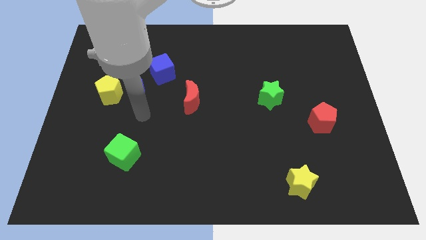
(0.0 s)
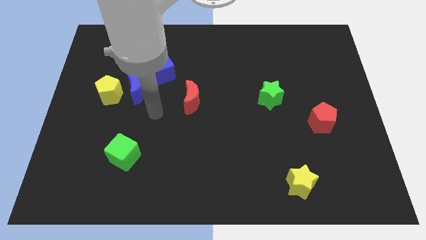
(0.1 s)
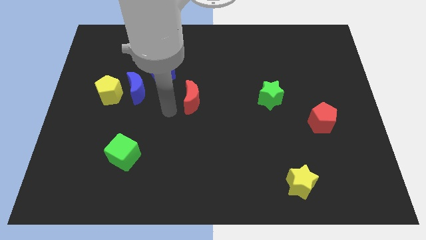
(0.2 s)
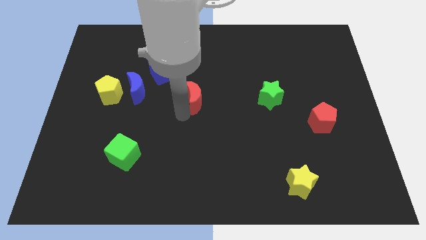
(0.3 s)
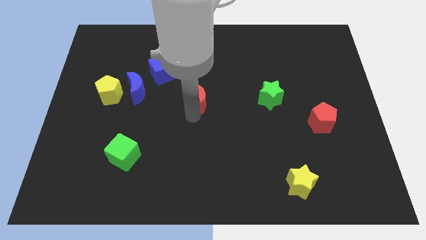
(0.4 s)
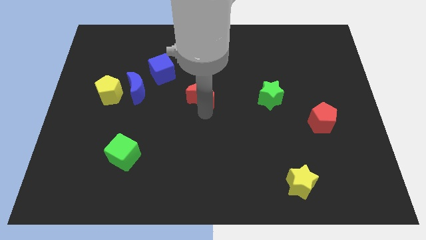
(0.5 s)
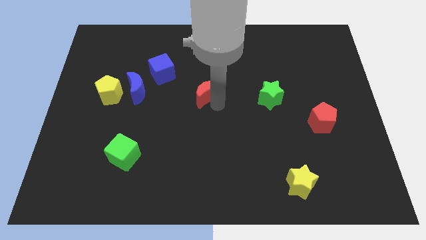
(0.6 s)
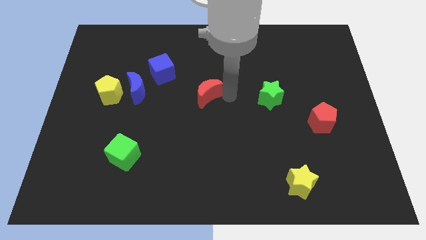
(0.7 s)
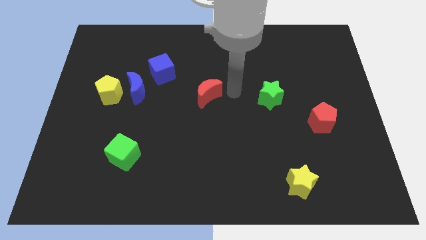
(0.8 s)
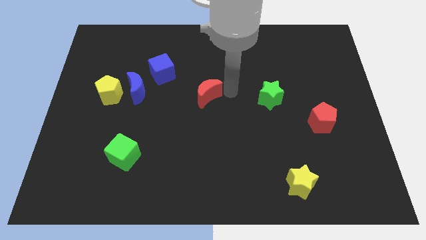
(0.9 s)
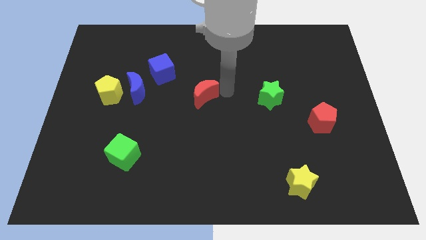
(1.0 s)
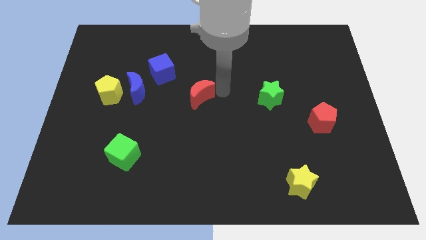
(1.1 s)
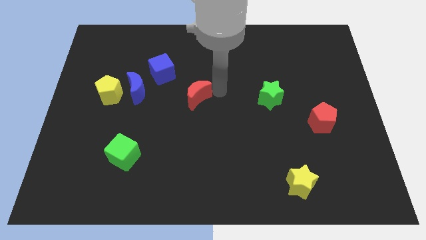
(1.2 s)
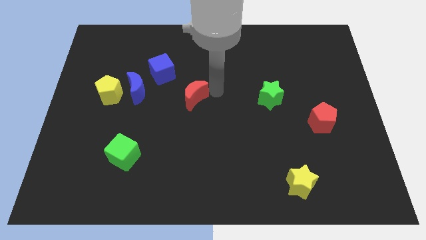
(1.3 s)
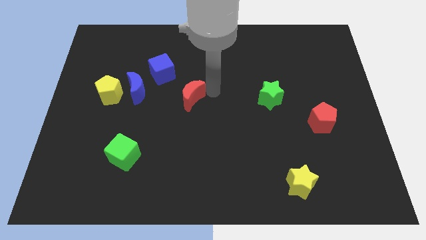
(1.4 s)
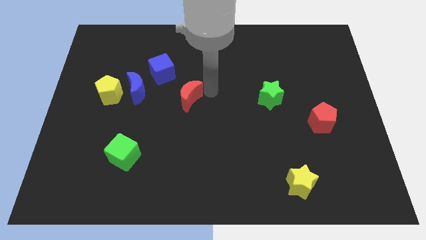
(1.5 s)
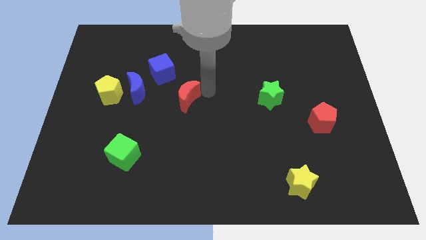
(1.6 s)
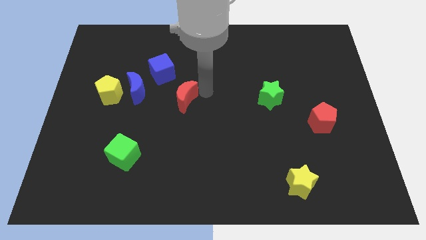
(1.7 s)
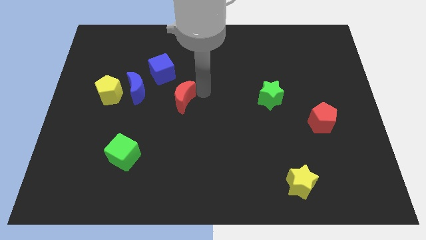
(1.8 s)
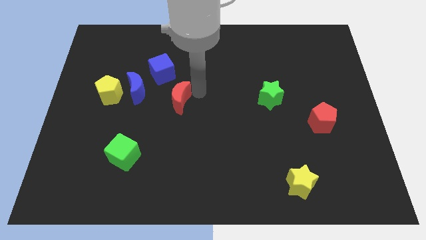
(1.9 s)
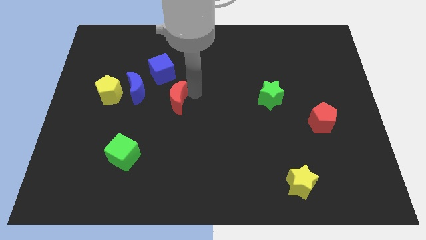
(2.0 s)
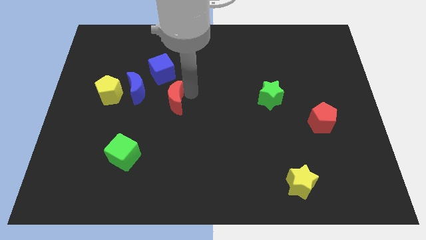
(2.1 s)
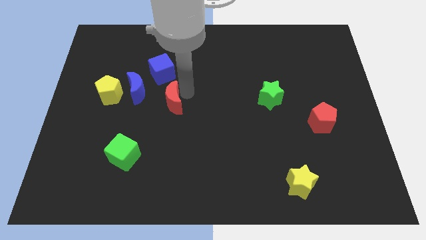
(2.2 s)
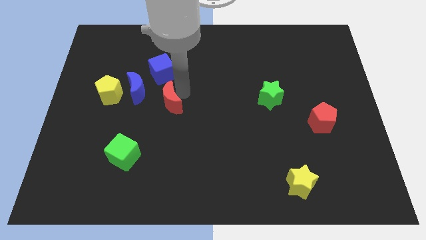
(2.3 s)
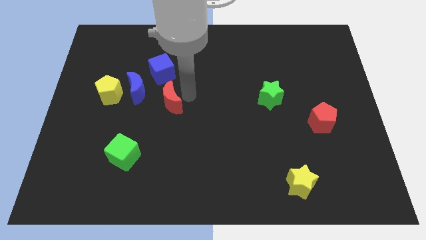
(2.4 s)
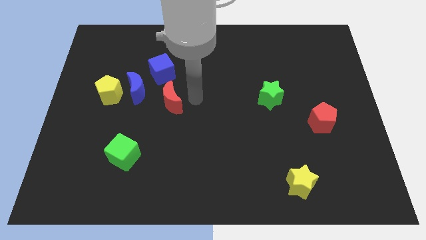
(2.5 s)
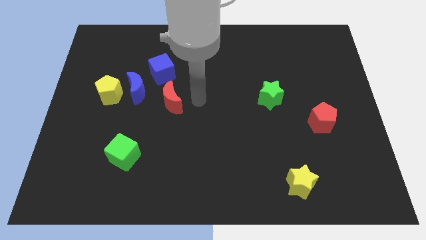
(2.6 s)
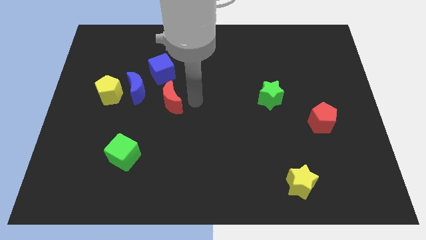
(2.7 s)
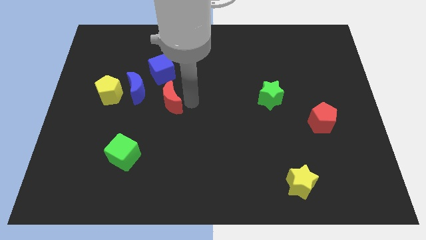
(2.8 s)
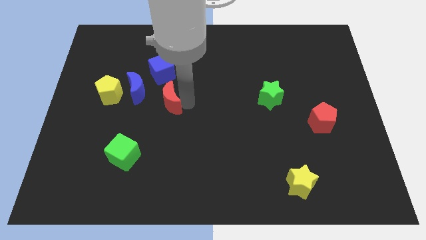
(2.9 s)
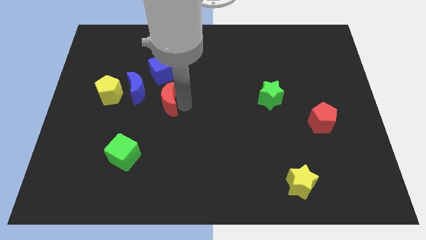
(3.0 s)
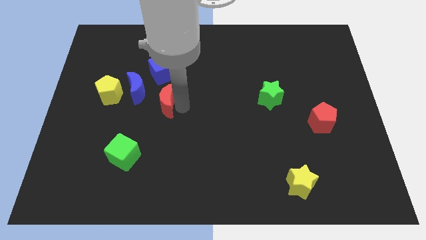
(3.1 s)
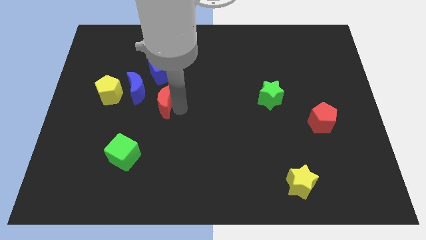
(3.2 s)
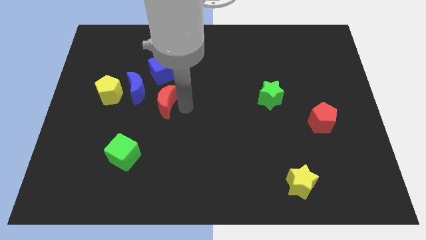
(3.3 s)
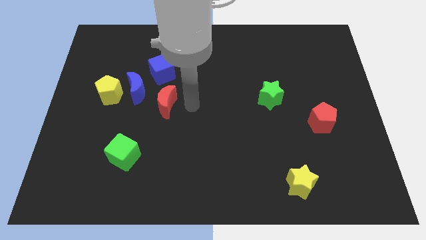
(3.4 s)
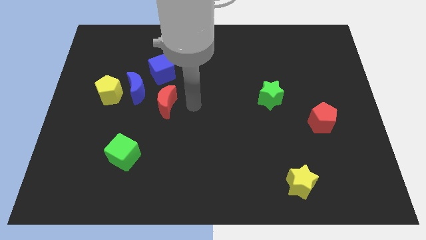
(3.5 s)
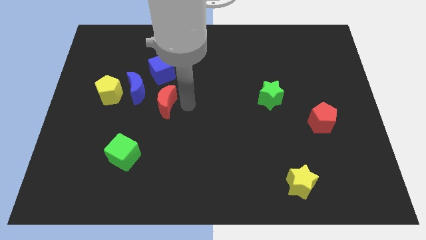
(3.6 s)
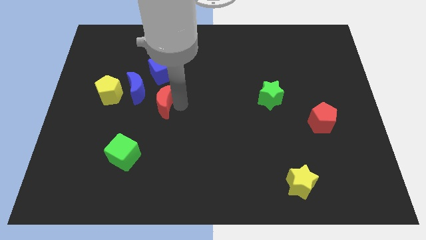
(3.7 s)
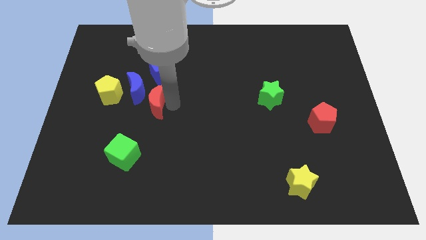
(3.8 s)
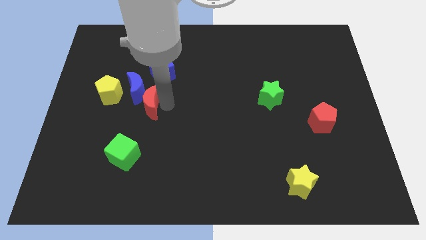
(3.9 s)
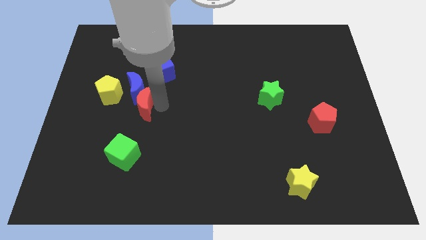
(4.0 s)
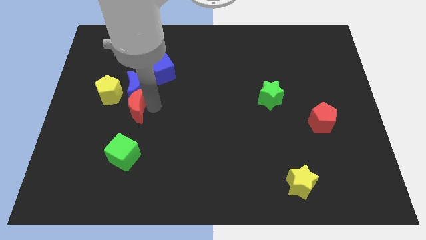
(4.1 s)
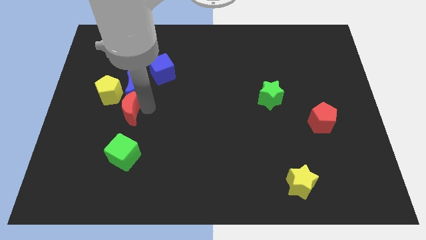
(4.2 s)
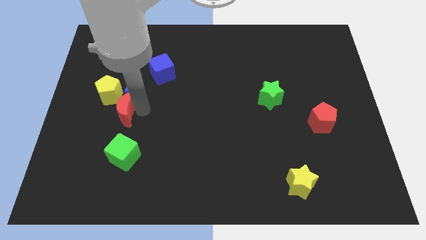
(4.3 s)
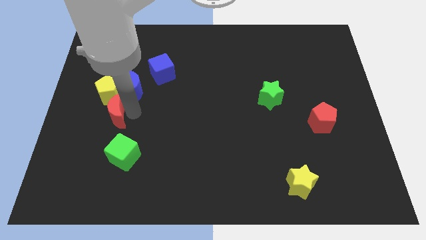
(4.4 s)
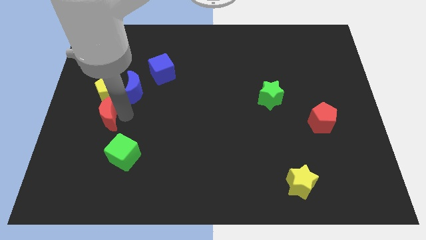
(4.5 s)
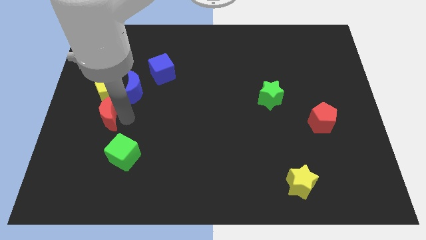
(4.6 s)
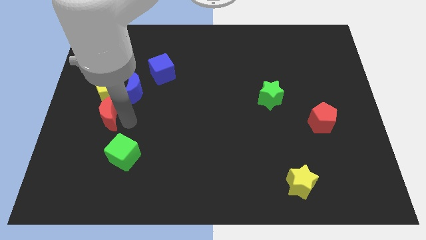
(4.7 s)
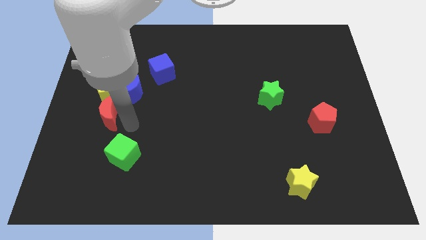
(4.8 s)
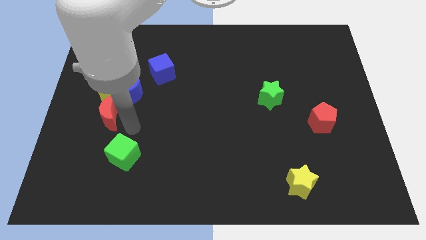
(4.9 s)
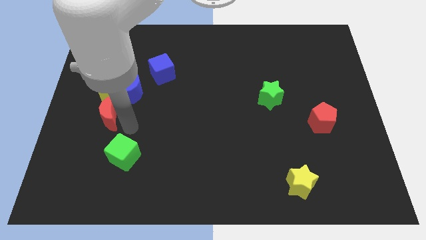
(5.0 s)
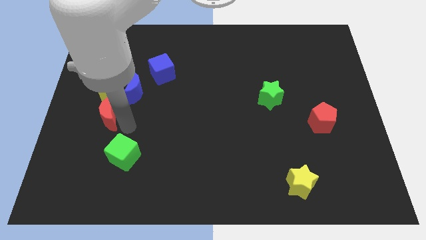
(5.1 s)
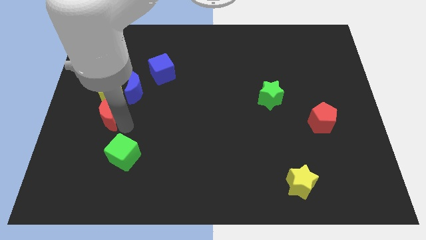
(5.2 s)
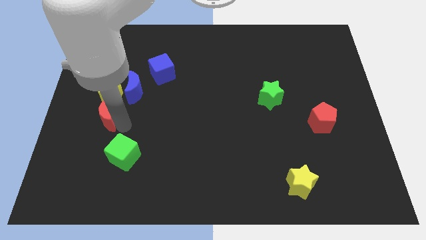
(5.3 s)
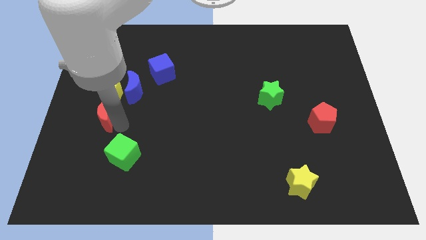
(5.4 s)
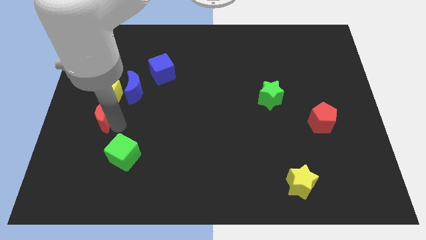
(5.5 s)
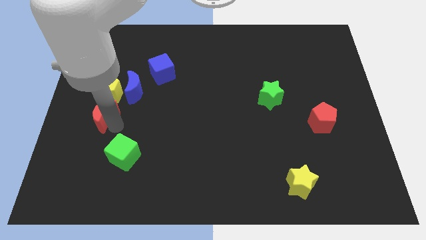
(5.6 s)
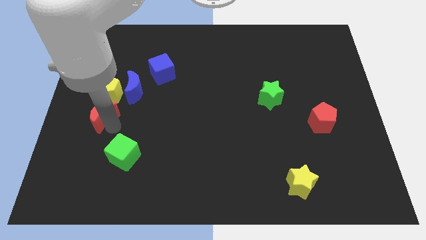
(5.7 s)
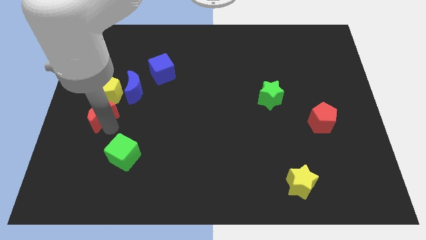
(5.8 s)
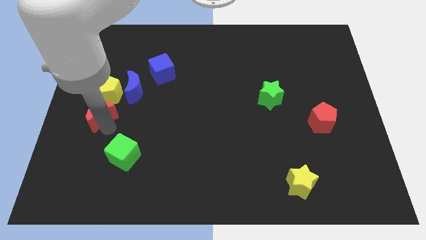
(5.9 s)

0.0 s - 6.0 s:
push the red moon to the left side of the board

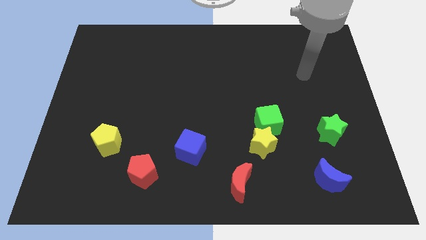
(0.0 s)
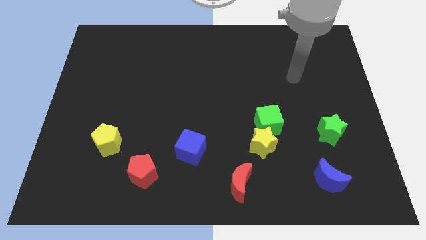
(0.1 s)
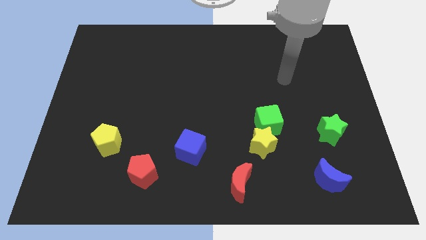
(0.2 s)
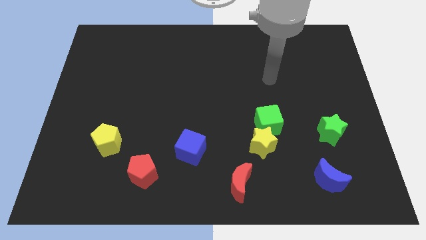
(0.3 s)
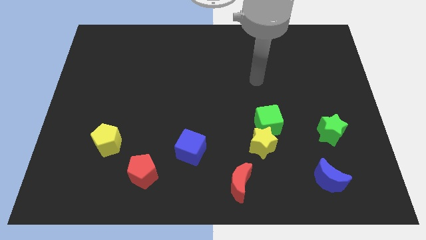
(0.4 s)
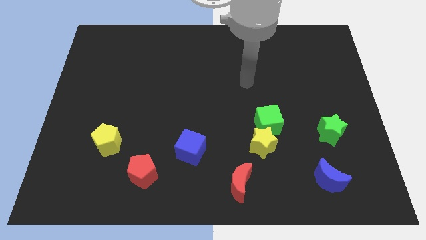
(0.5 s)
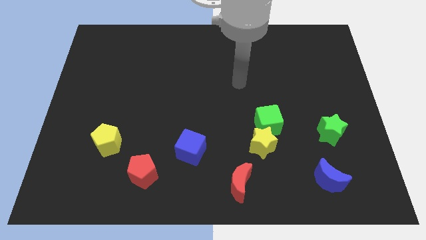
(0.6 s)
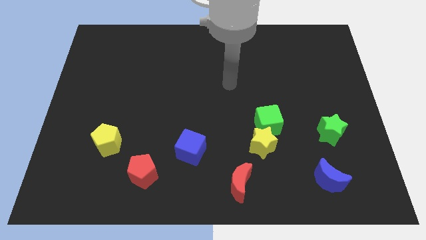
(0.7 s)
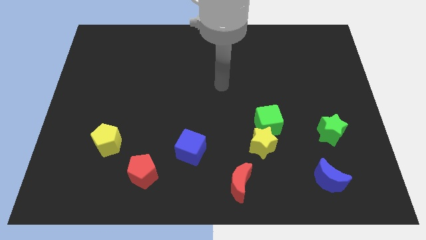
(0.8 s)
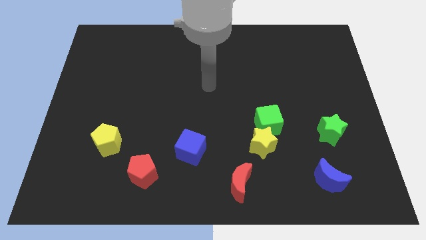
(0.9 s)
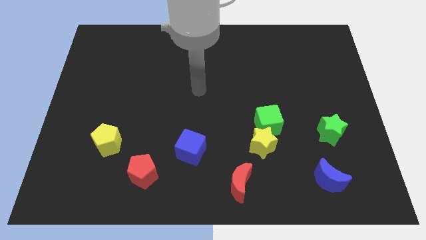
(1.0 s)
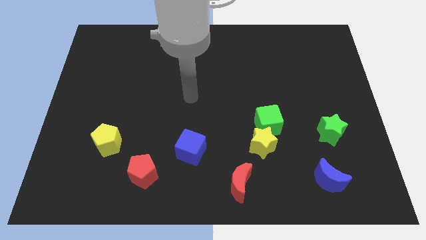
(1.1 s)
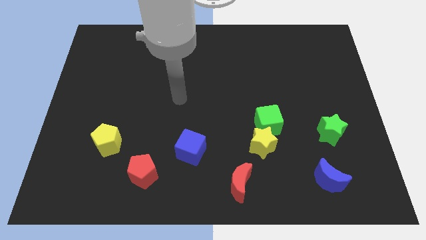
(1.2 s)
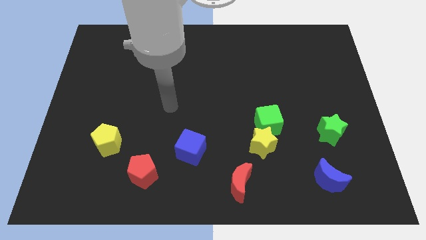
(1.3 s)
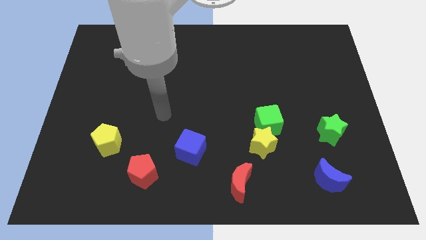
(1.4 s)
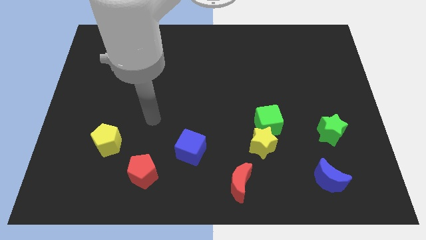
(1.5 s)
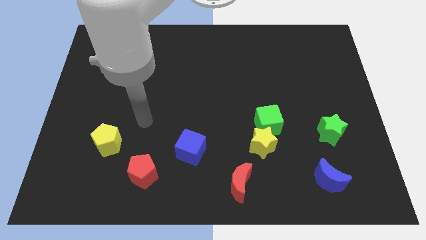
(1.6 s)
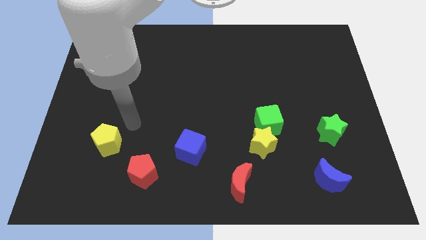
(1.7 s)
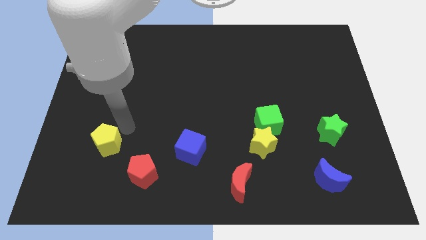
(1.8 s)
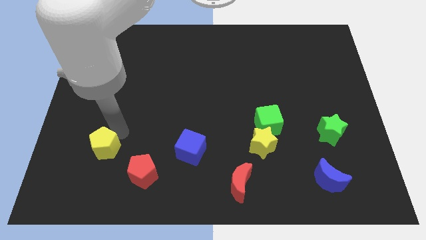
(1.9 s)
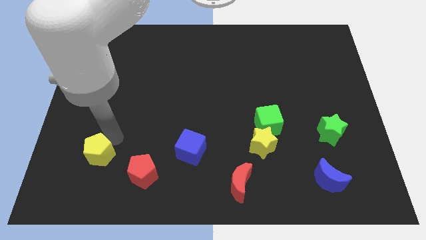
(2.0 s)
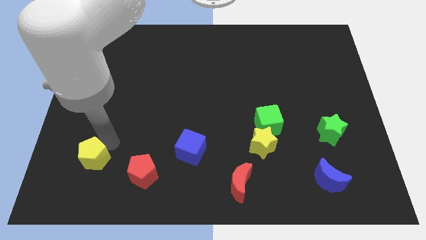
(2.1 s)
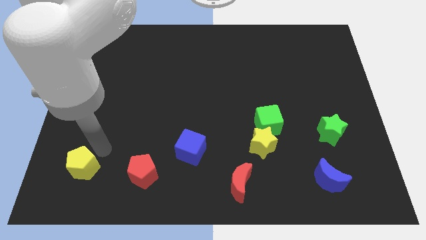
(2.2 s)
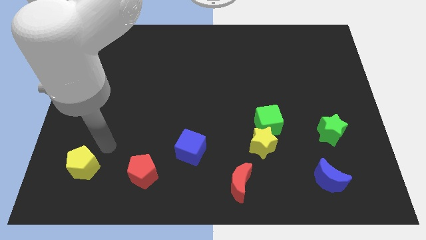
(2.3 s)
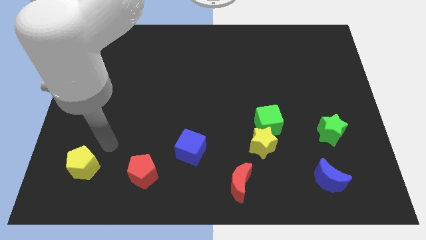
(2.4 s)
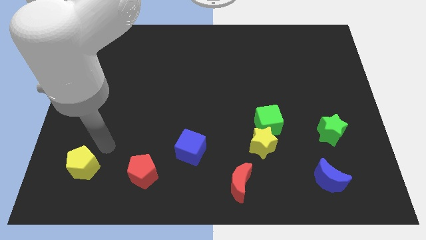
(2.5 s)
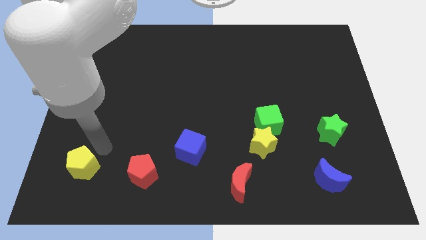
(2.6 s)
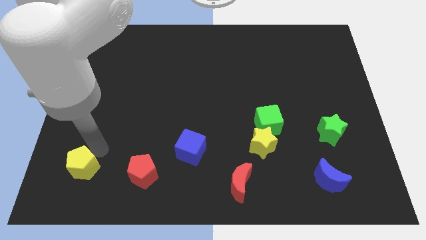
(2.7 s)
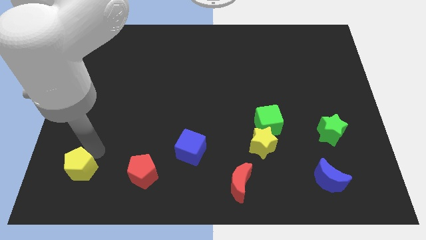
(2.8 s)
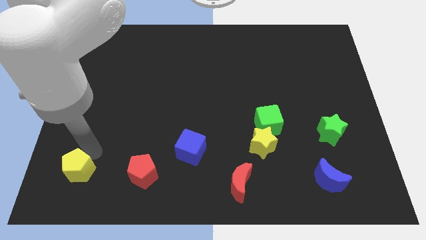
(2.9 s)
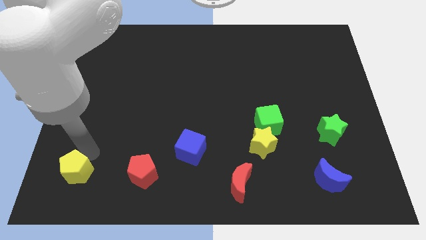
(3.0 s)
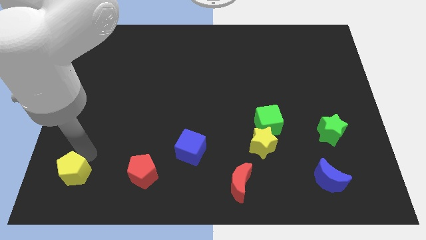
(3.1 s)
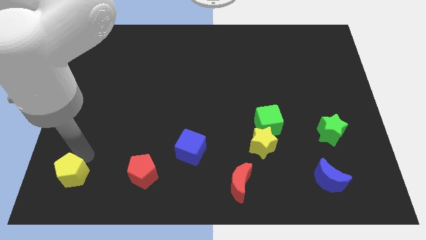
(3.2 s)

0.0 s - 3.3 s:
move the yellow pentagon to the lower left corner
